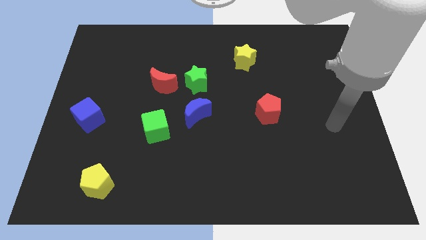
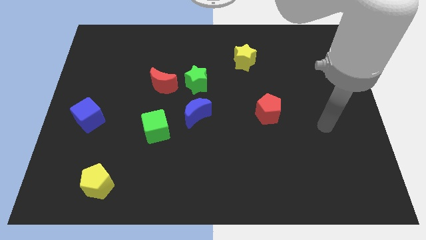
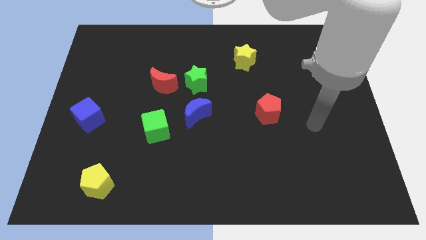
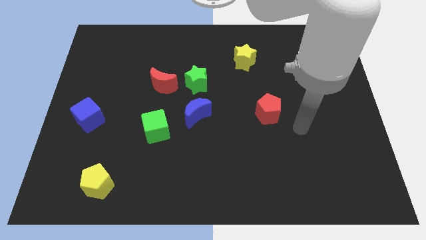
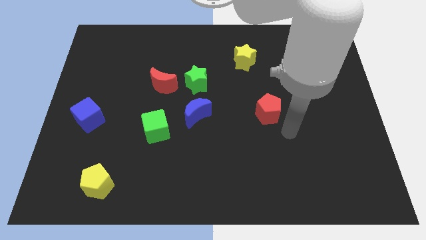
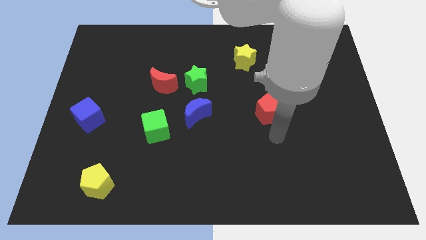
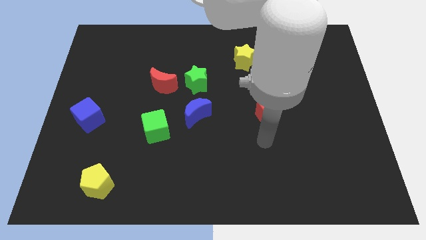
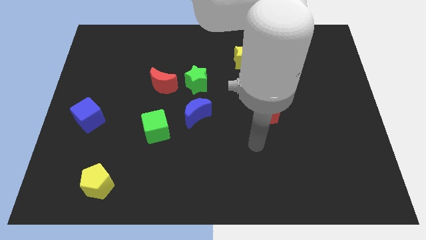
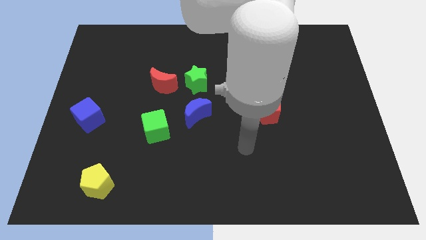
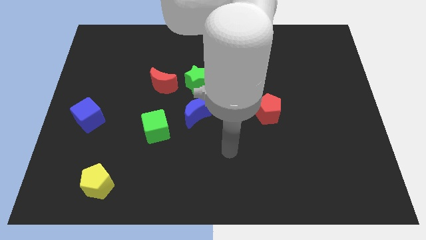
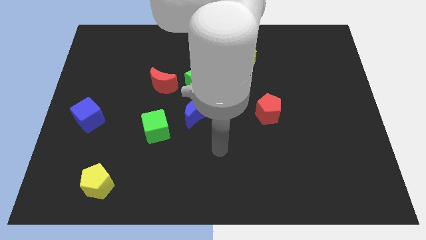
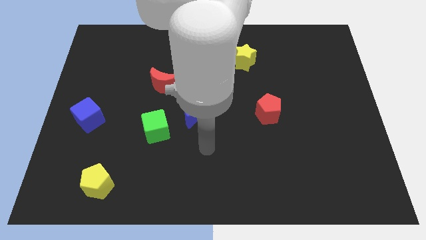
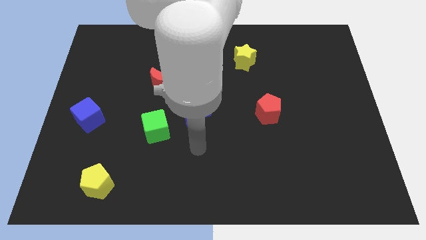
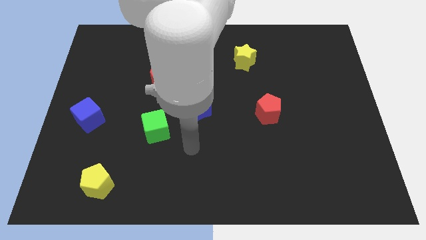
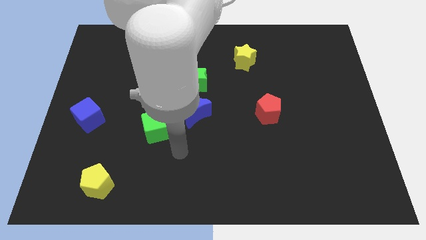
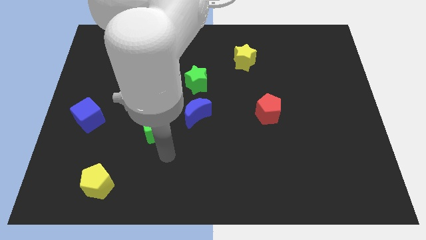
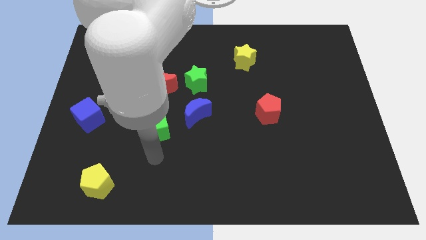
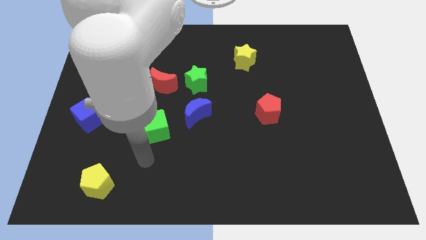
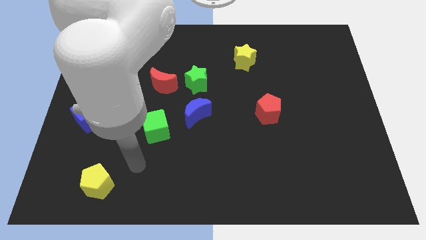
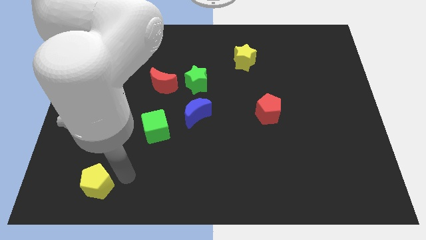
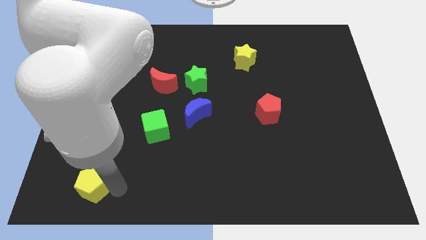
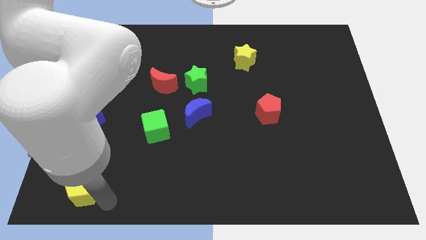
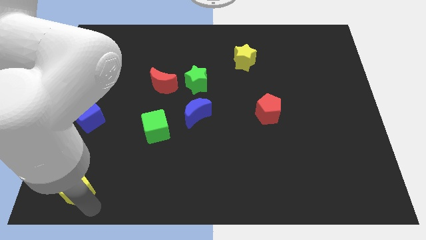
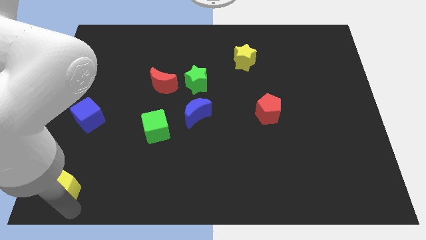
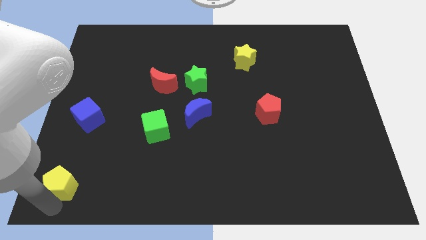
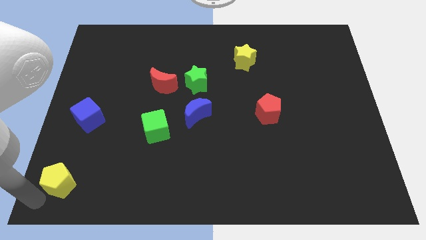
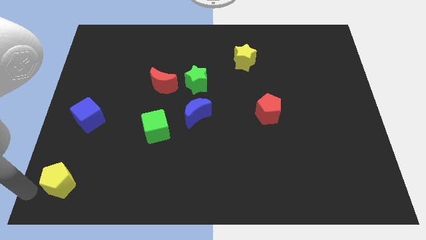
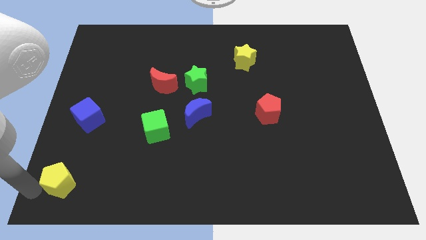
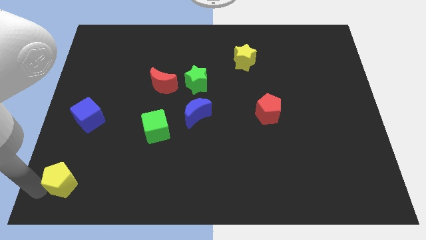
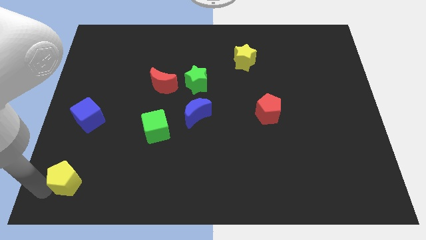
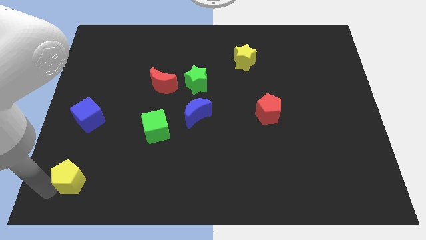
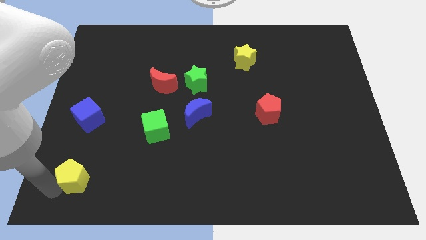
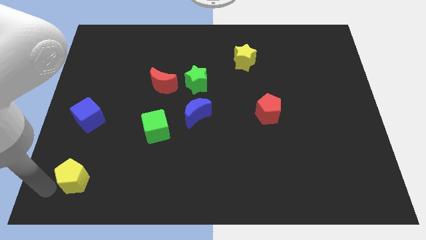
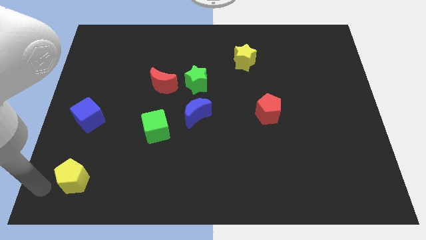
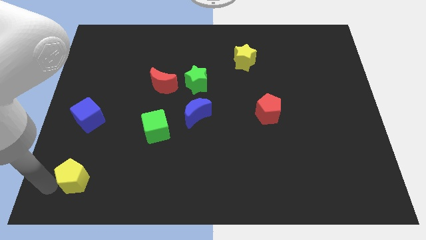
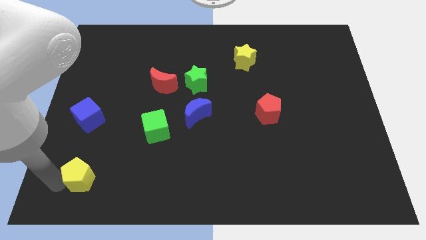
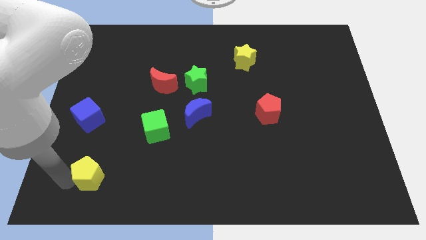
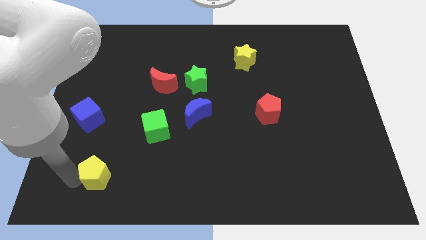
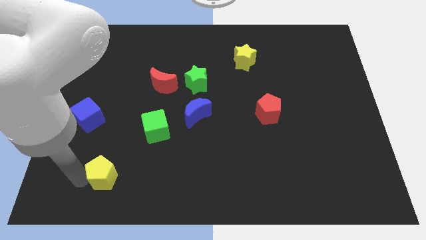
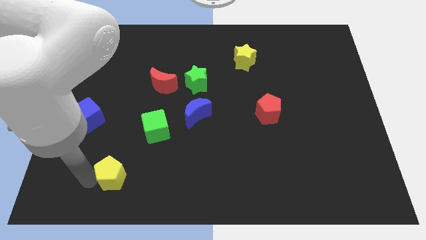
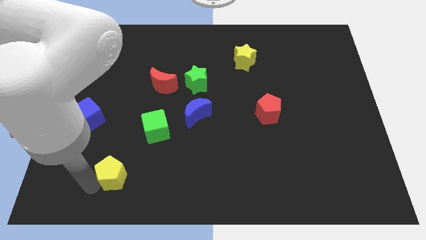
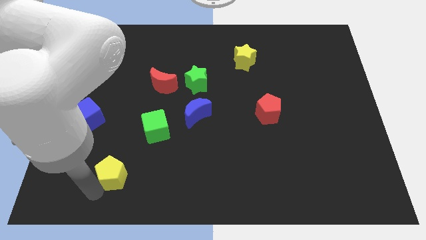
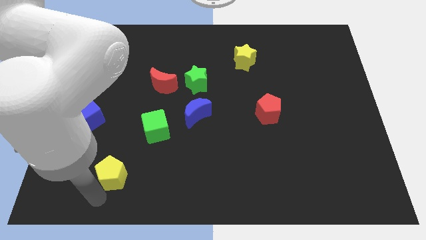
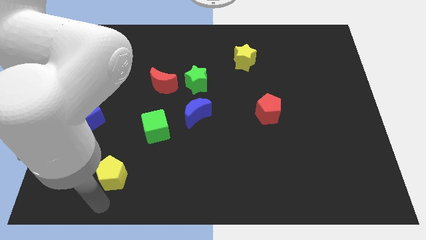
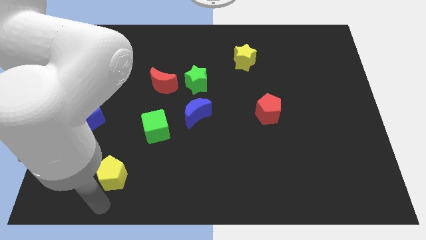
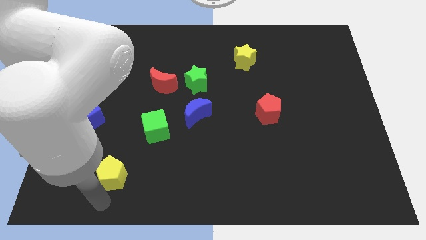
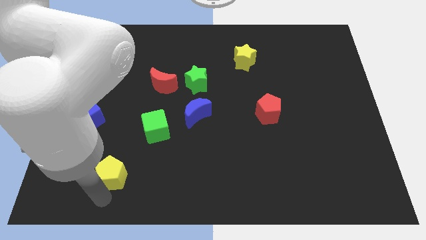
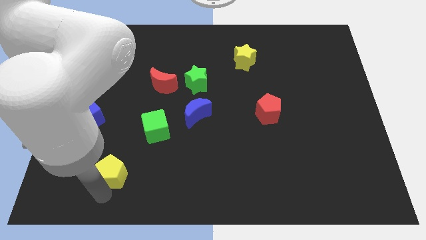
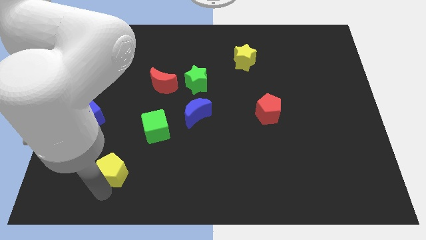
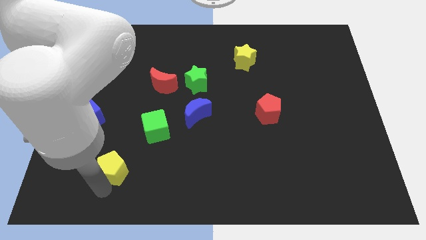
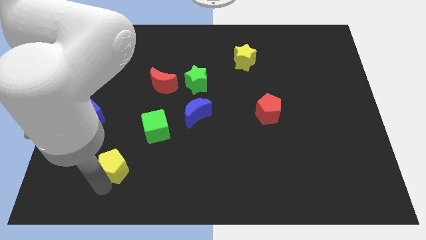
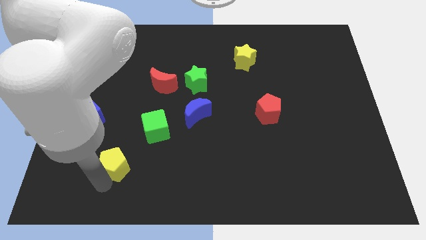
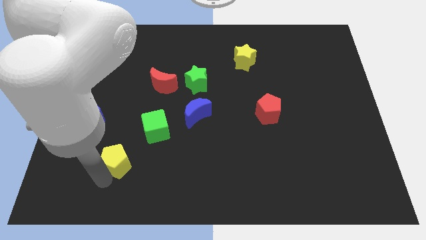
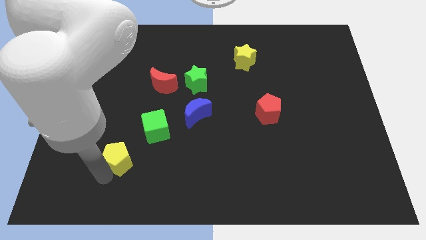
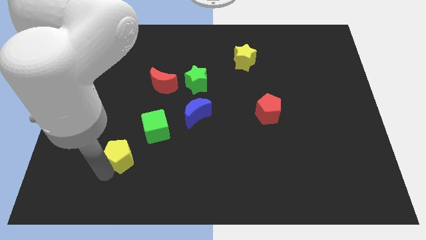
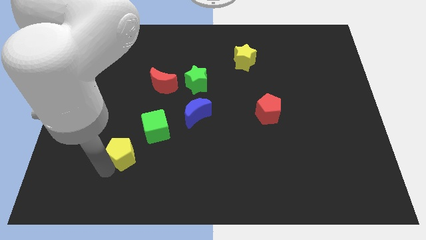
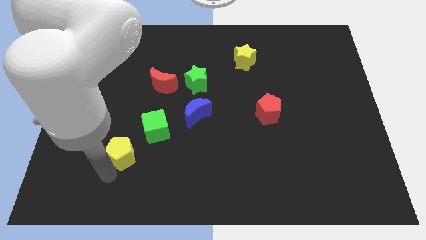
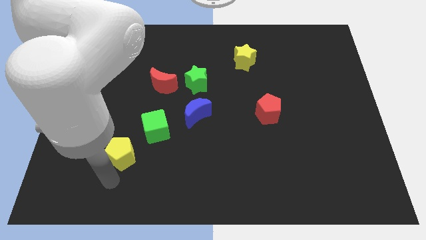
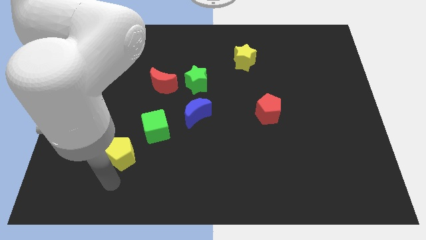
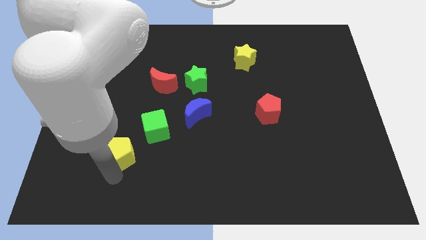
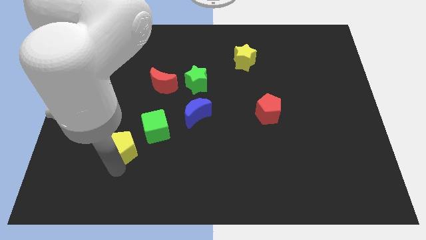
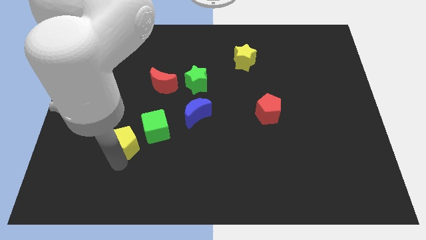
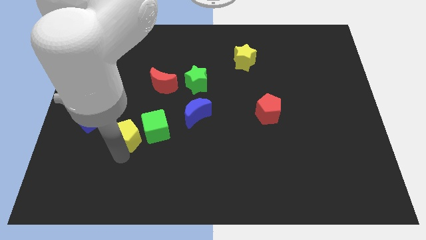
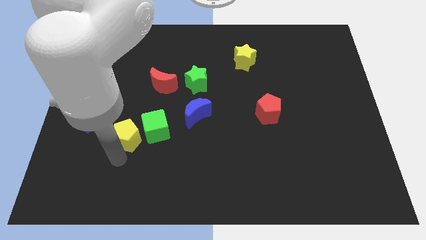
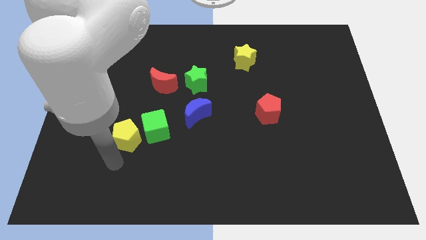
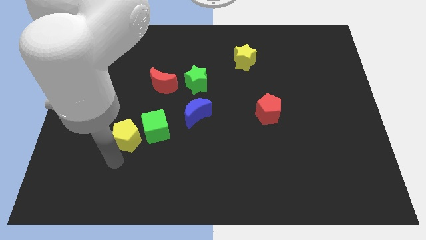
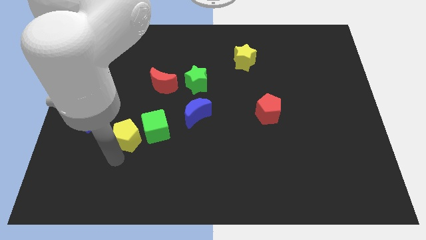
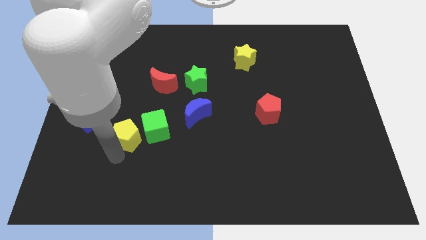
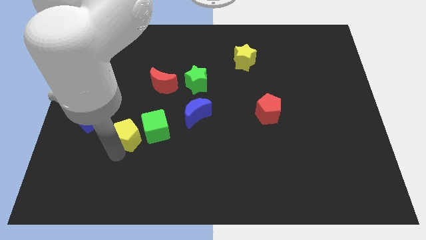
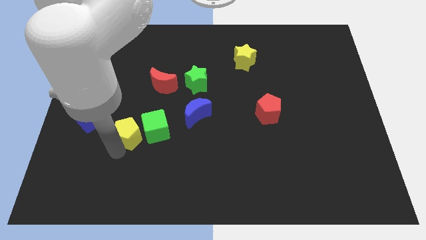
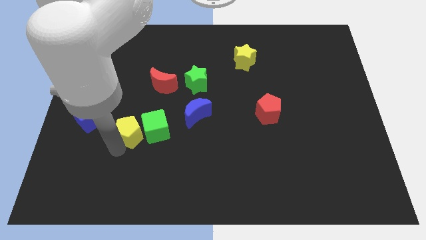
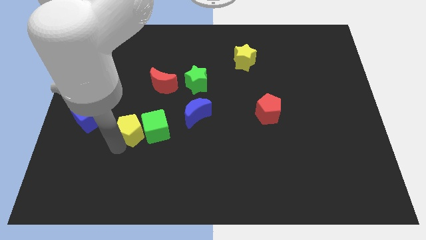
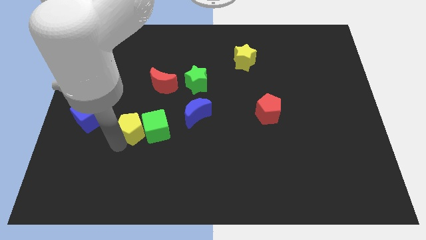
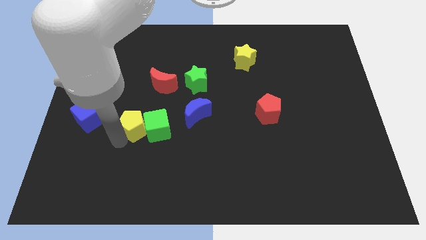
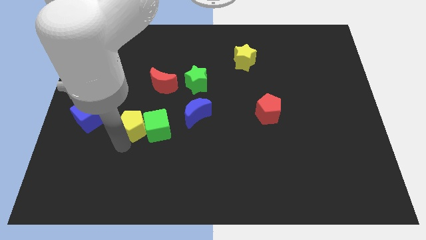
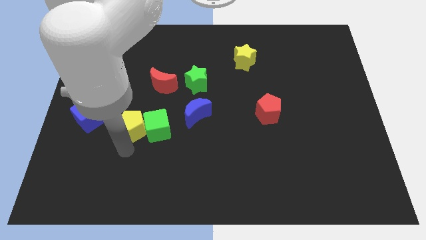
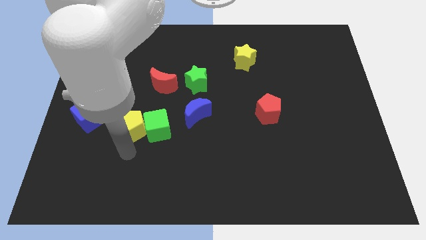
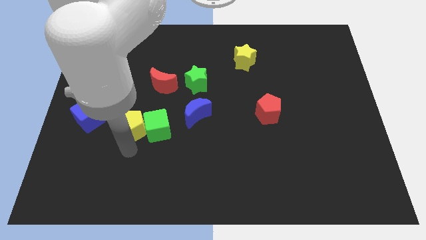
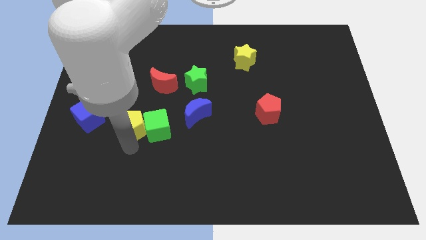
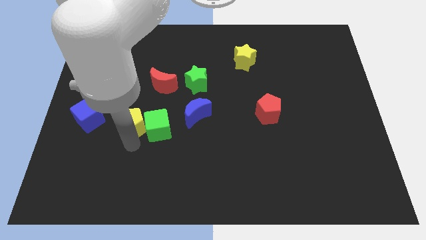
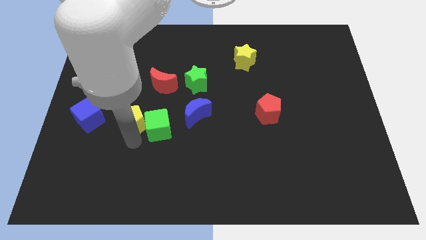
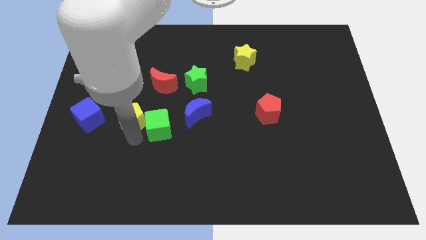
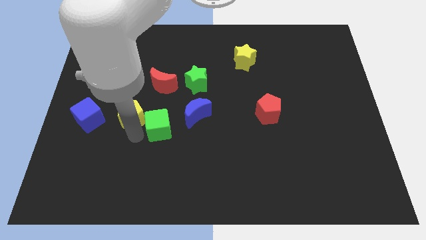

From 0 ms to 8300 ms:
slide the yellow pentagon to the bottom left of the red moon
